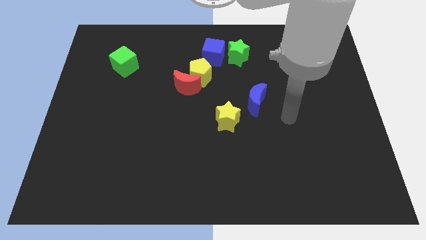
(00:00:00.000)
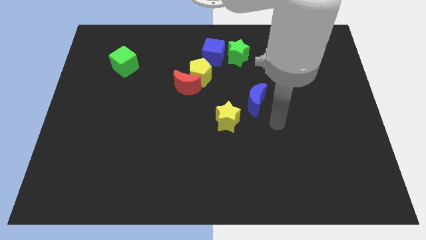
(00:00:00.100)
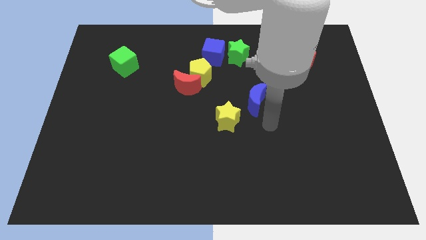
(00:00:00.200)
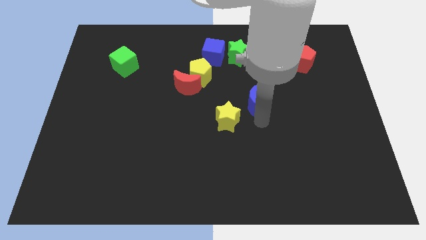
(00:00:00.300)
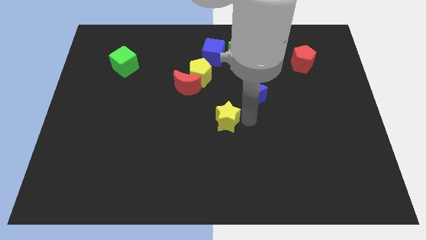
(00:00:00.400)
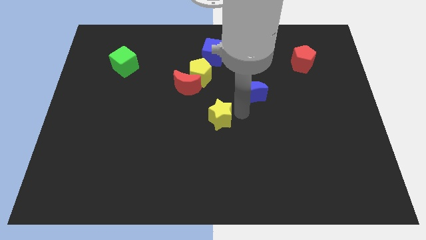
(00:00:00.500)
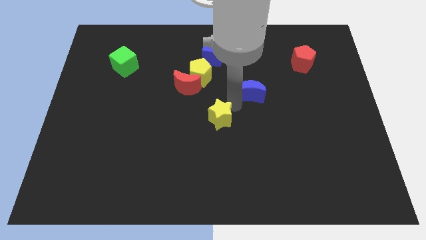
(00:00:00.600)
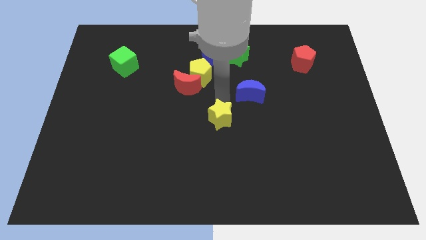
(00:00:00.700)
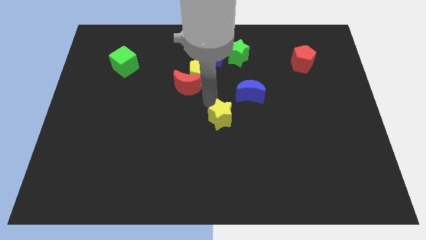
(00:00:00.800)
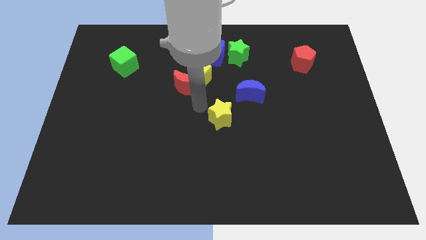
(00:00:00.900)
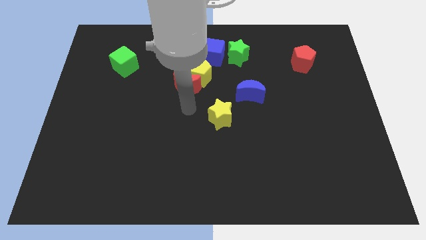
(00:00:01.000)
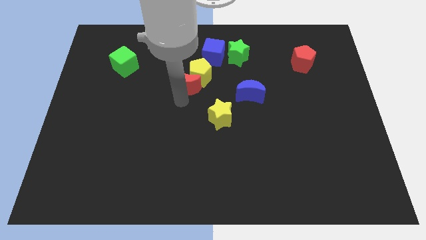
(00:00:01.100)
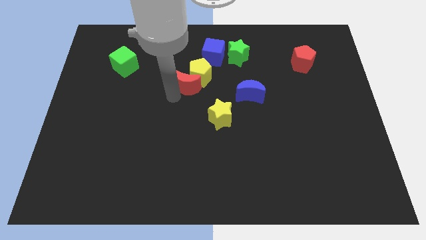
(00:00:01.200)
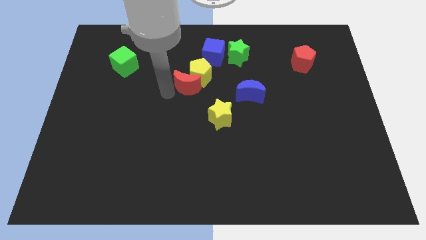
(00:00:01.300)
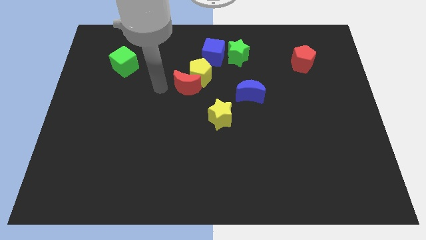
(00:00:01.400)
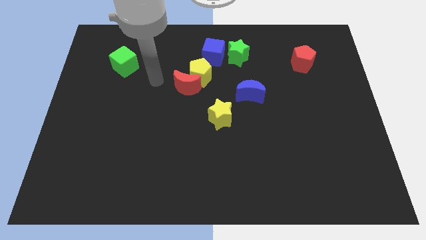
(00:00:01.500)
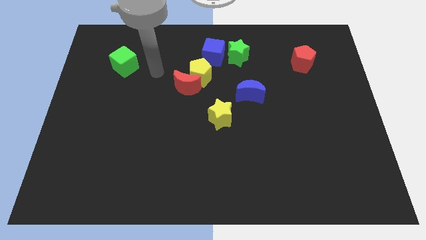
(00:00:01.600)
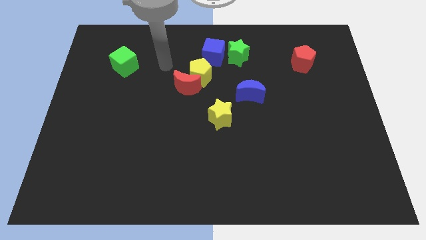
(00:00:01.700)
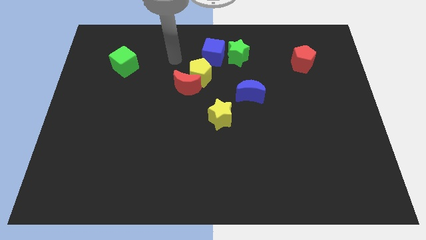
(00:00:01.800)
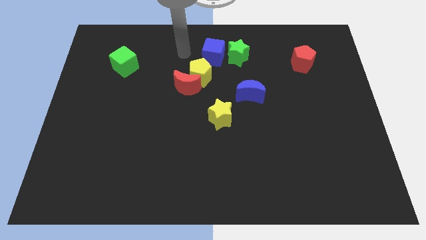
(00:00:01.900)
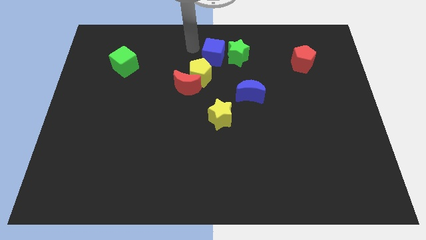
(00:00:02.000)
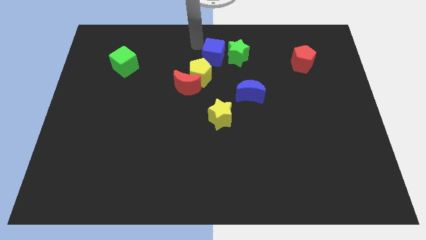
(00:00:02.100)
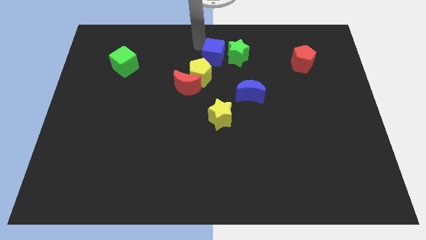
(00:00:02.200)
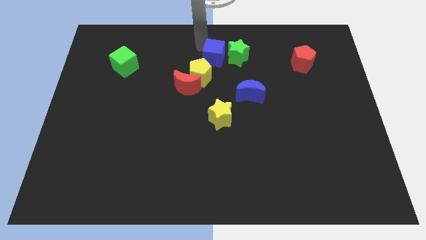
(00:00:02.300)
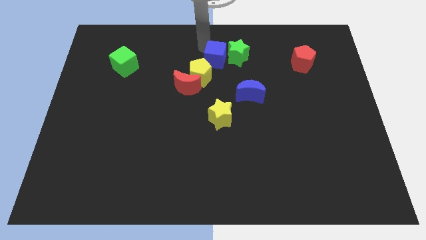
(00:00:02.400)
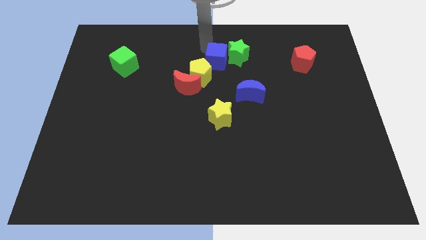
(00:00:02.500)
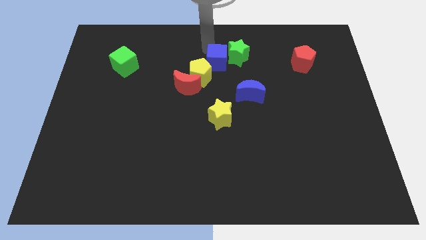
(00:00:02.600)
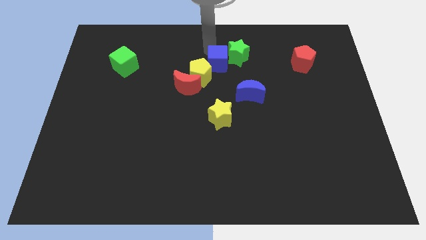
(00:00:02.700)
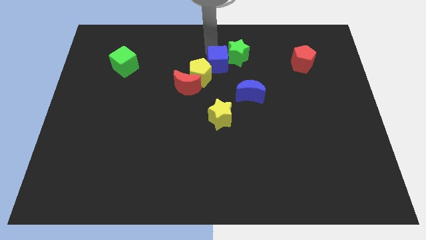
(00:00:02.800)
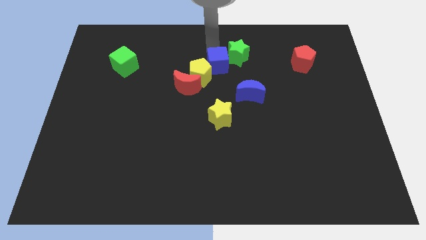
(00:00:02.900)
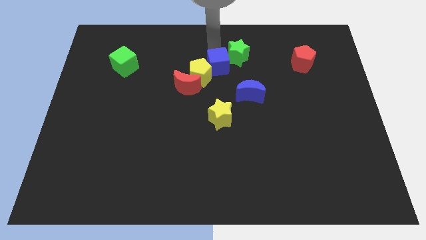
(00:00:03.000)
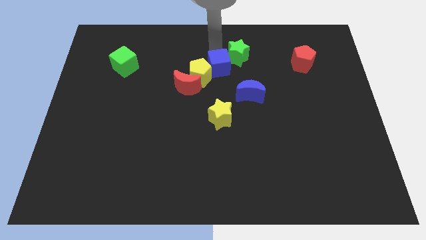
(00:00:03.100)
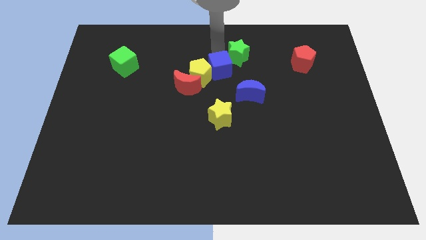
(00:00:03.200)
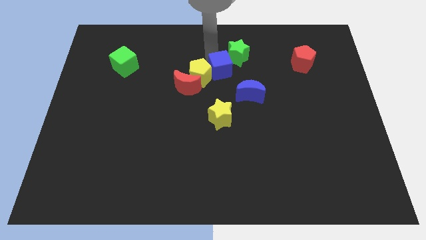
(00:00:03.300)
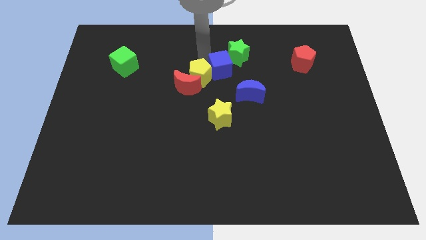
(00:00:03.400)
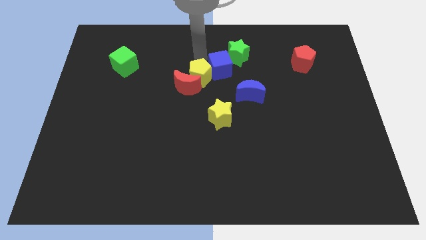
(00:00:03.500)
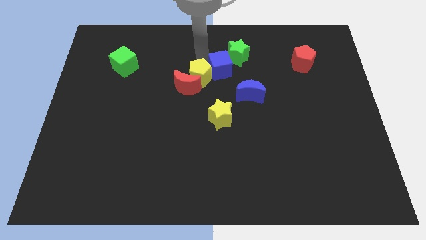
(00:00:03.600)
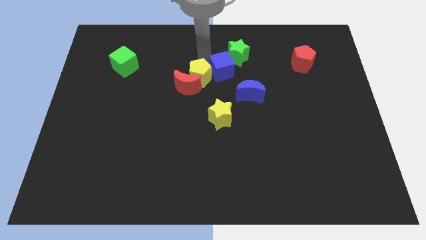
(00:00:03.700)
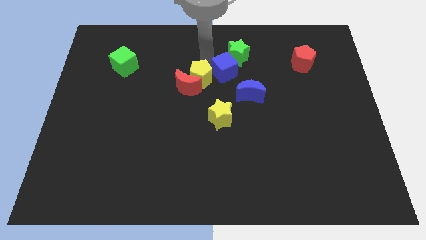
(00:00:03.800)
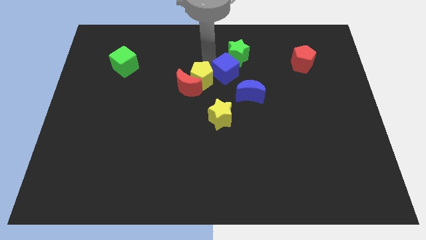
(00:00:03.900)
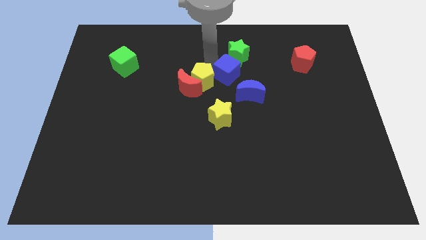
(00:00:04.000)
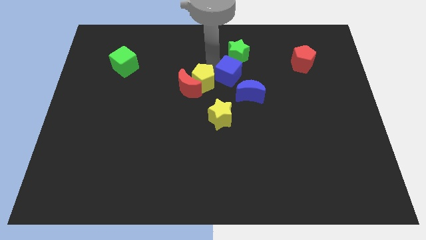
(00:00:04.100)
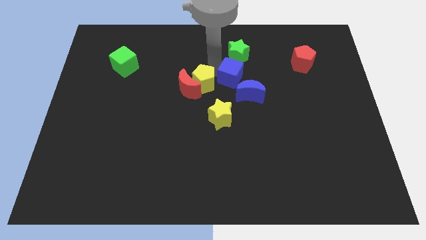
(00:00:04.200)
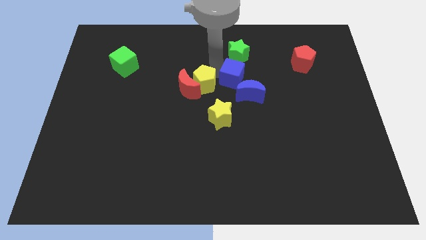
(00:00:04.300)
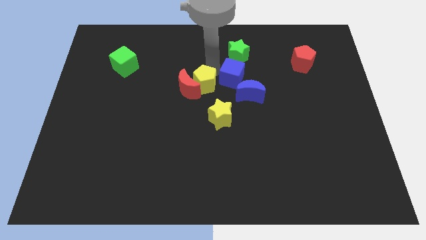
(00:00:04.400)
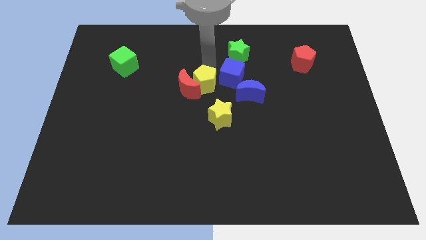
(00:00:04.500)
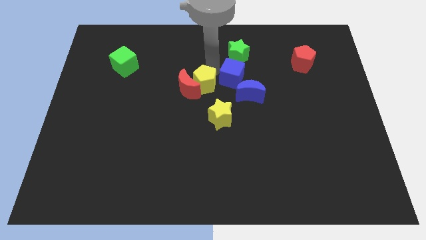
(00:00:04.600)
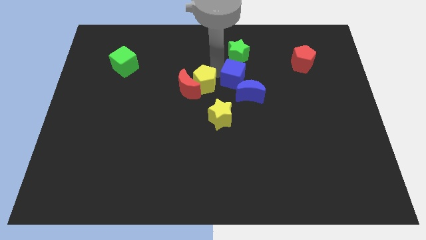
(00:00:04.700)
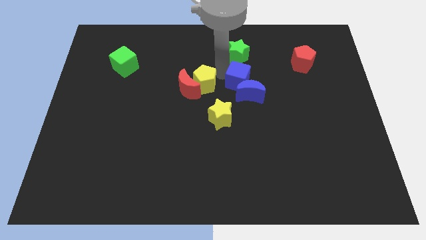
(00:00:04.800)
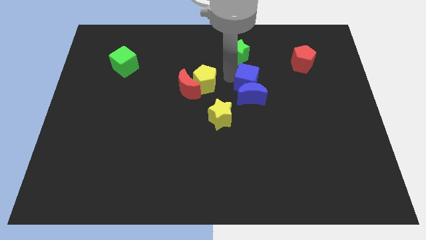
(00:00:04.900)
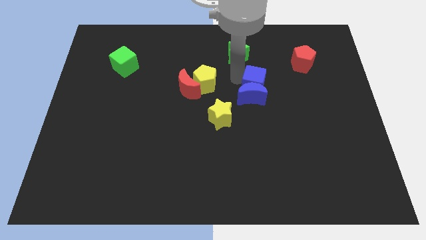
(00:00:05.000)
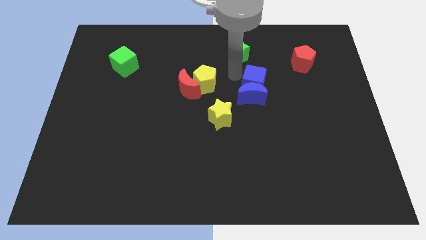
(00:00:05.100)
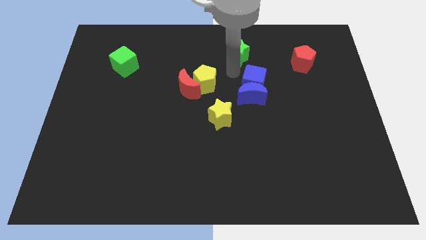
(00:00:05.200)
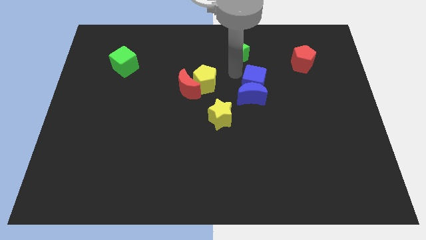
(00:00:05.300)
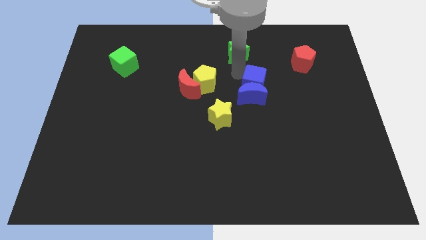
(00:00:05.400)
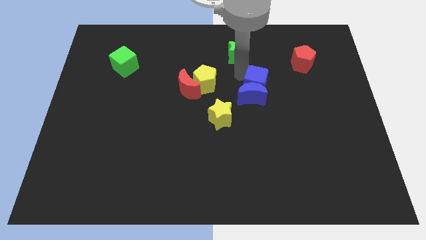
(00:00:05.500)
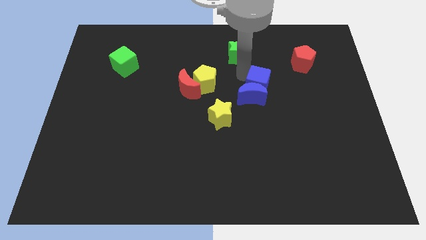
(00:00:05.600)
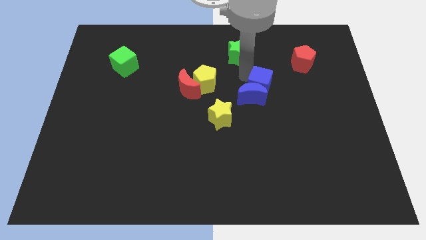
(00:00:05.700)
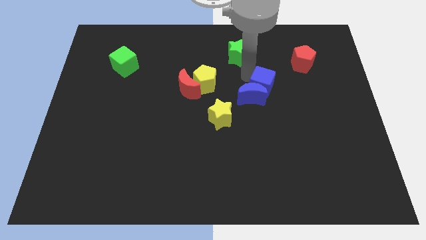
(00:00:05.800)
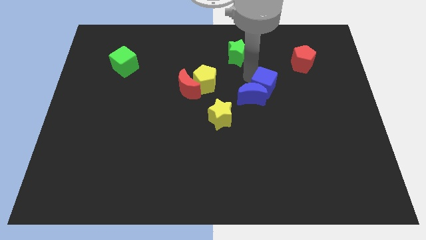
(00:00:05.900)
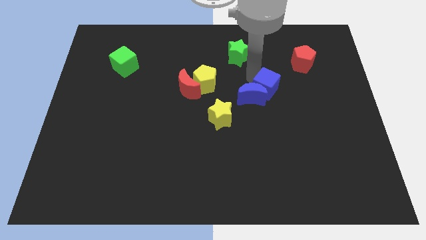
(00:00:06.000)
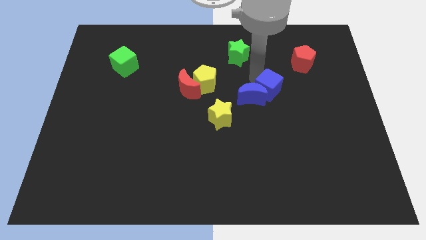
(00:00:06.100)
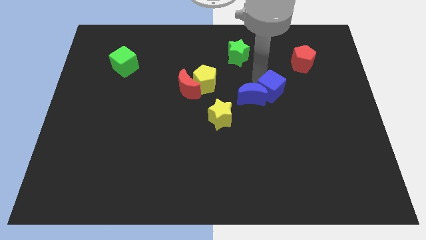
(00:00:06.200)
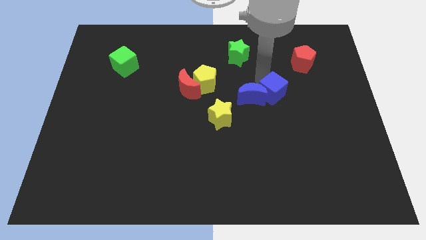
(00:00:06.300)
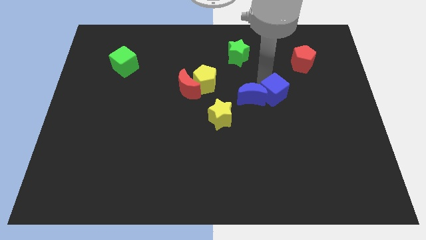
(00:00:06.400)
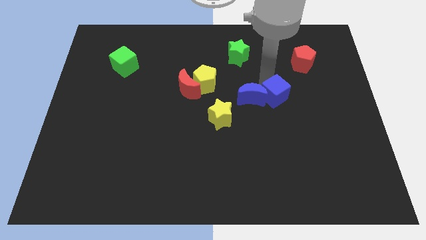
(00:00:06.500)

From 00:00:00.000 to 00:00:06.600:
push the blue cube downwards and right diagonally

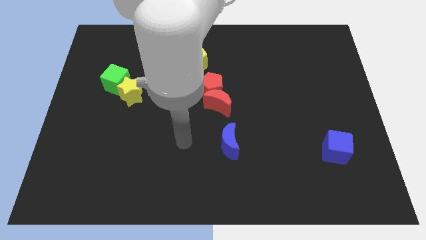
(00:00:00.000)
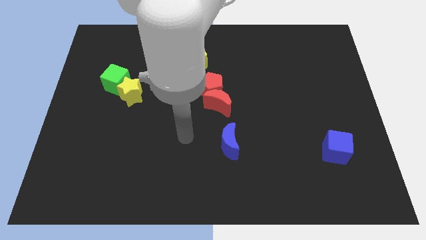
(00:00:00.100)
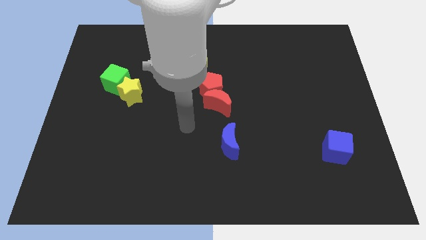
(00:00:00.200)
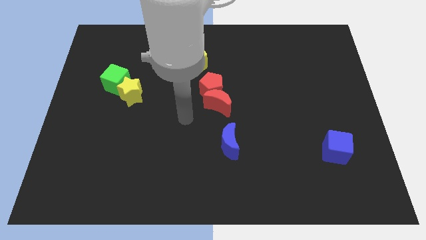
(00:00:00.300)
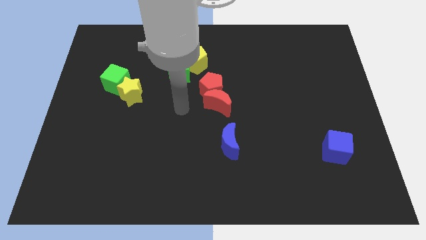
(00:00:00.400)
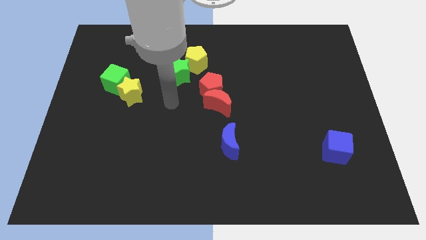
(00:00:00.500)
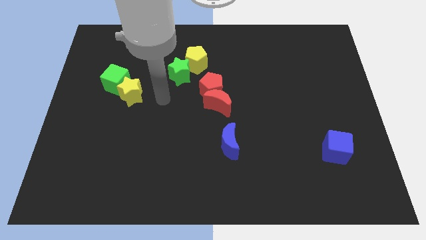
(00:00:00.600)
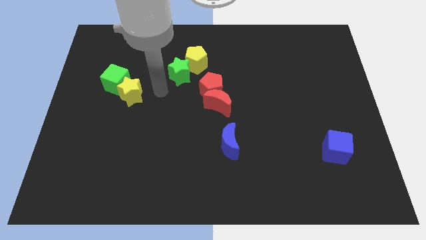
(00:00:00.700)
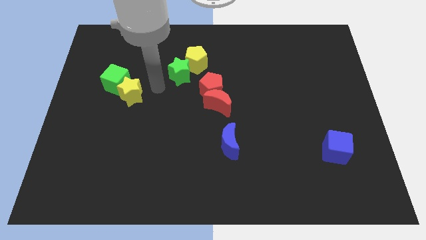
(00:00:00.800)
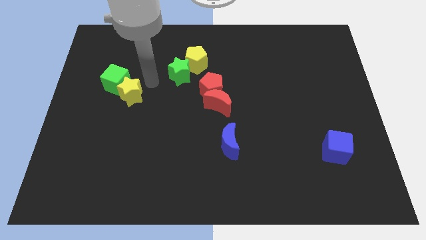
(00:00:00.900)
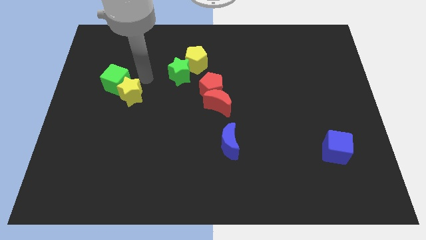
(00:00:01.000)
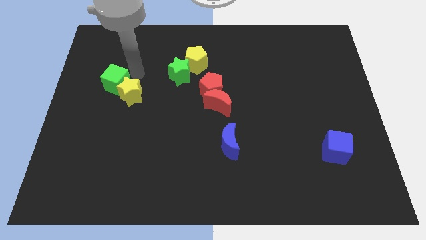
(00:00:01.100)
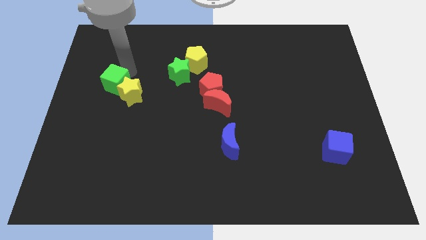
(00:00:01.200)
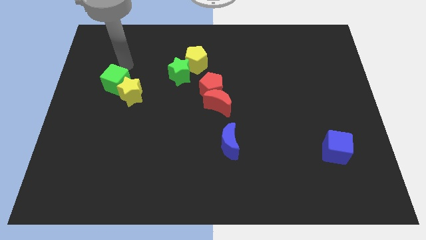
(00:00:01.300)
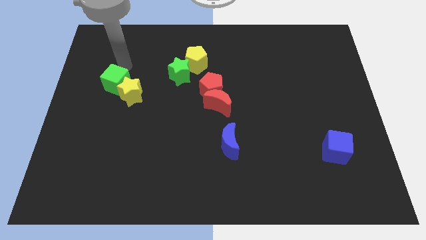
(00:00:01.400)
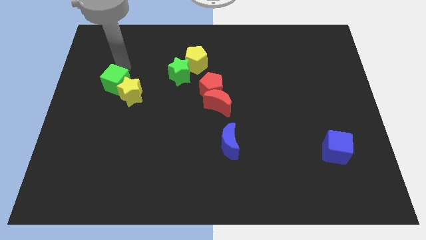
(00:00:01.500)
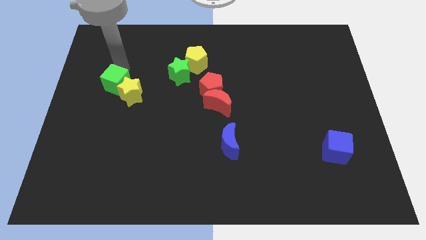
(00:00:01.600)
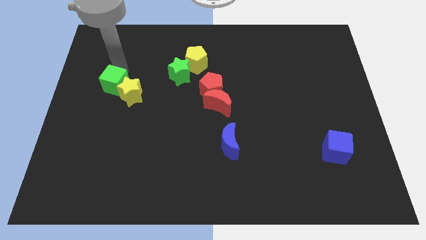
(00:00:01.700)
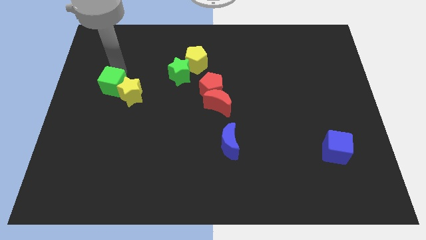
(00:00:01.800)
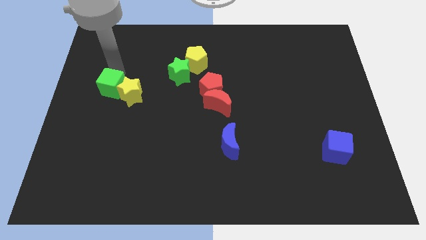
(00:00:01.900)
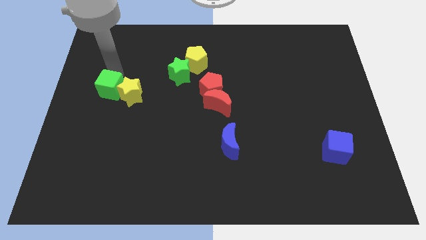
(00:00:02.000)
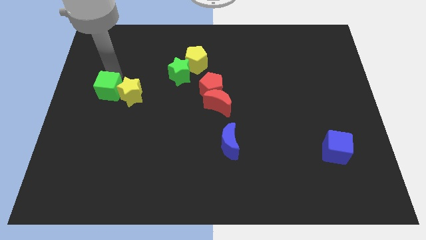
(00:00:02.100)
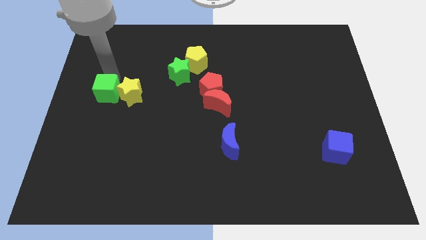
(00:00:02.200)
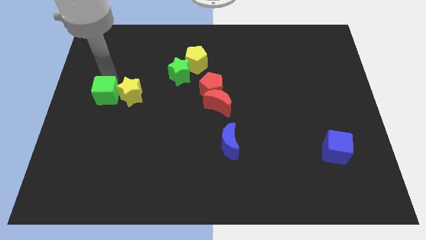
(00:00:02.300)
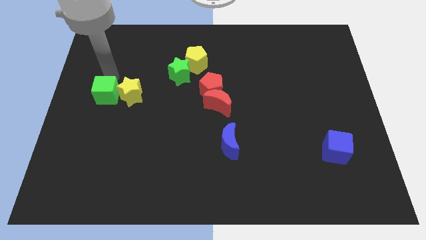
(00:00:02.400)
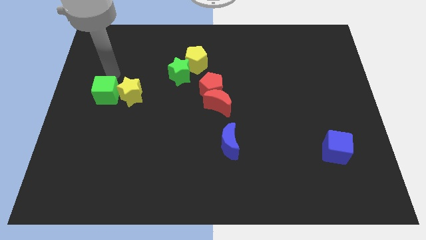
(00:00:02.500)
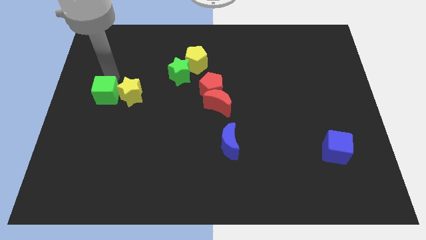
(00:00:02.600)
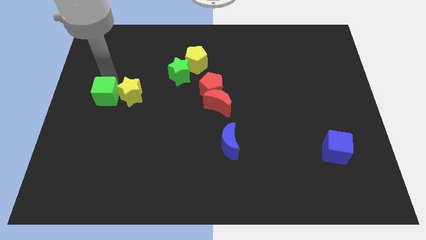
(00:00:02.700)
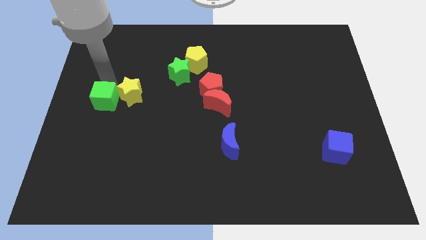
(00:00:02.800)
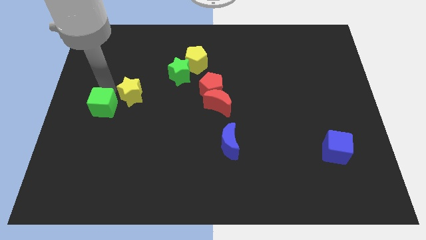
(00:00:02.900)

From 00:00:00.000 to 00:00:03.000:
slightly slide the green cube downwards
